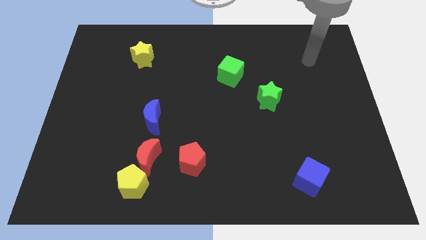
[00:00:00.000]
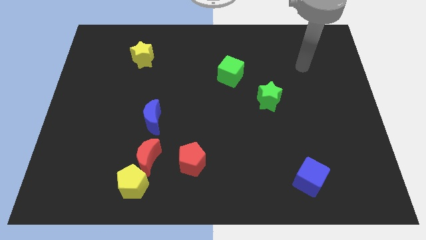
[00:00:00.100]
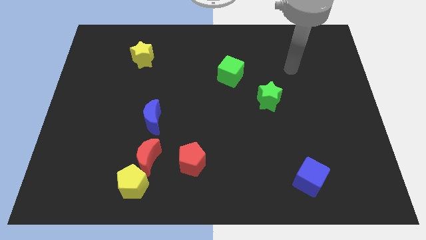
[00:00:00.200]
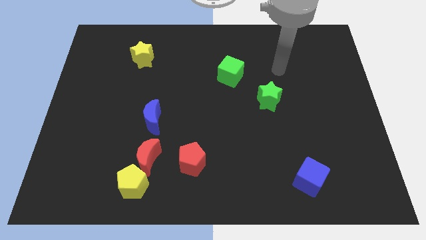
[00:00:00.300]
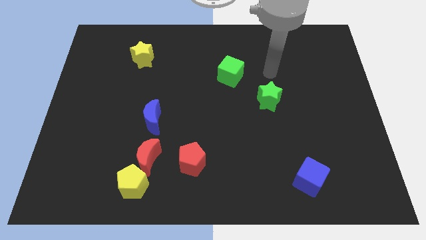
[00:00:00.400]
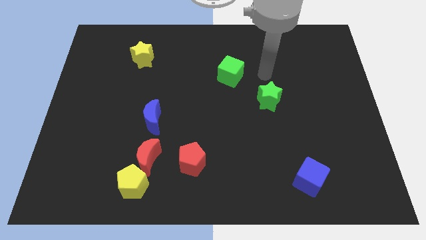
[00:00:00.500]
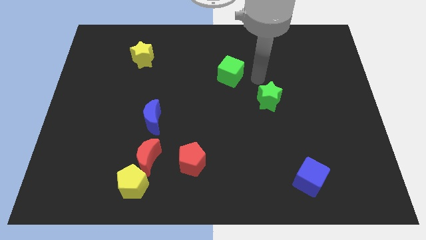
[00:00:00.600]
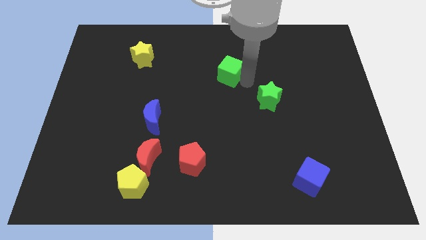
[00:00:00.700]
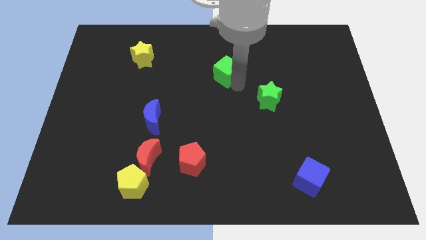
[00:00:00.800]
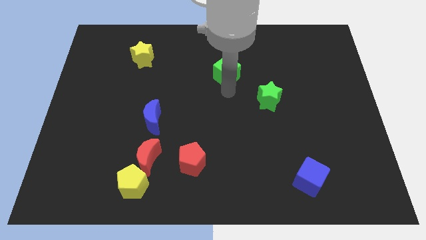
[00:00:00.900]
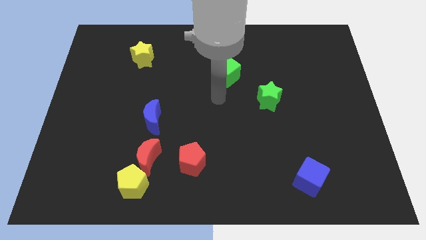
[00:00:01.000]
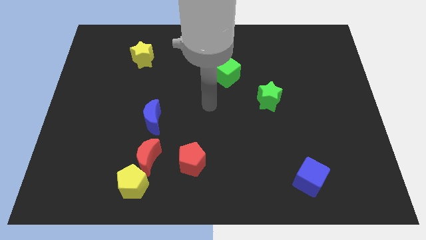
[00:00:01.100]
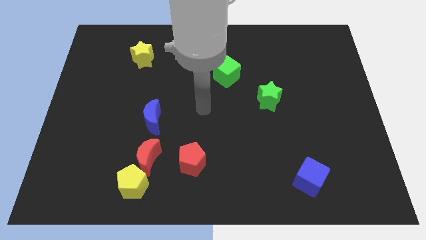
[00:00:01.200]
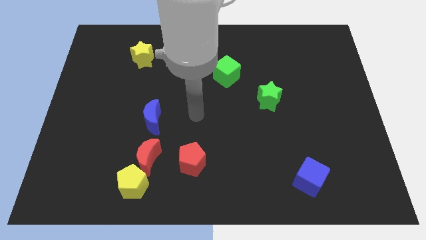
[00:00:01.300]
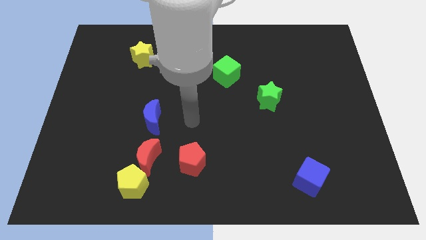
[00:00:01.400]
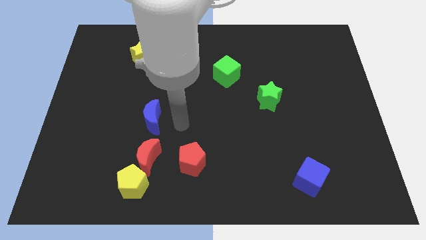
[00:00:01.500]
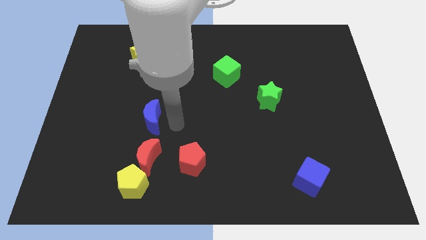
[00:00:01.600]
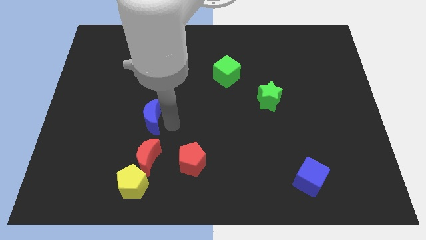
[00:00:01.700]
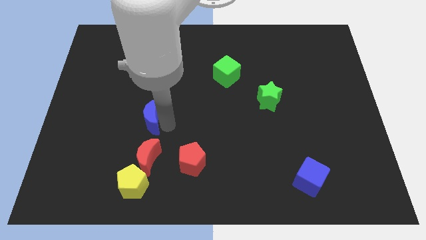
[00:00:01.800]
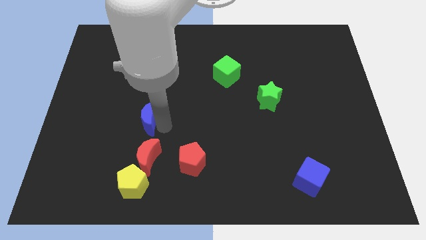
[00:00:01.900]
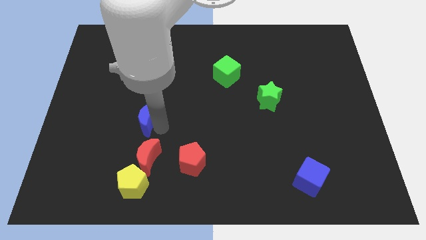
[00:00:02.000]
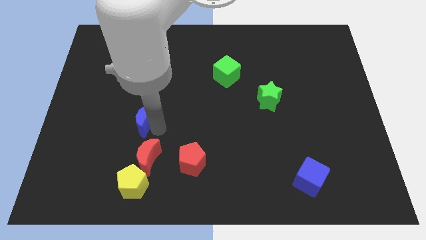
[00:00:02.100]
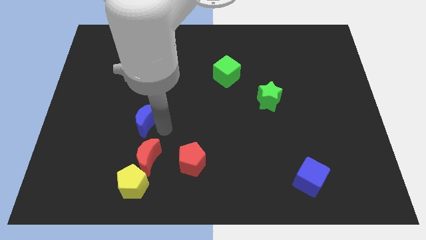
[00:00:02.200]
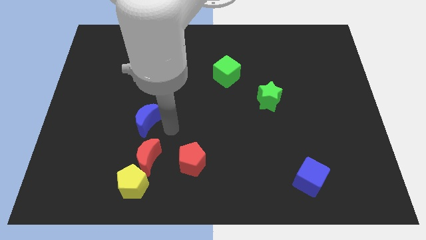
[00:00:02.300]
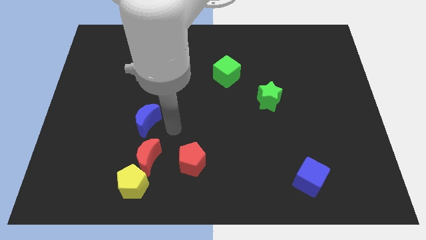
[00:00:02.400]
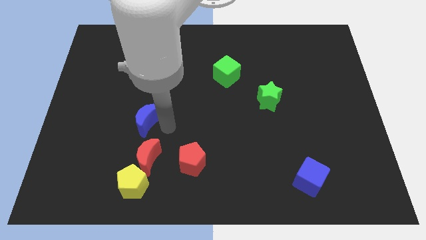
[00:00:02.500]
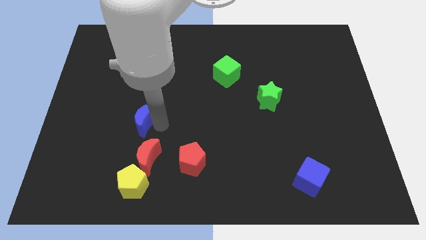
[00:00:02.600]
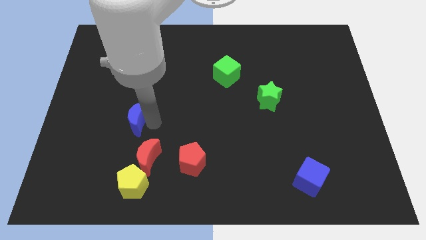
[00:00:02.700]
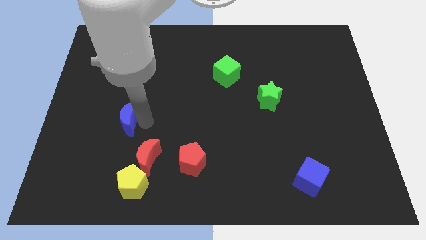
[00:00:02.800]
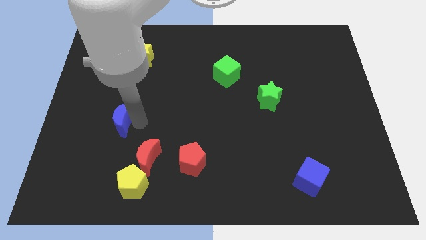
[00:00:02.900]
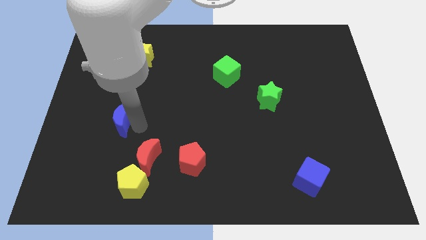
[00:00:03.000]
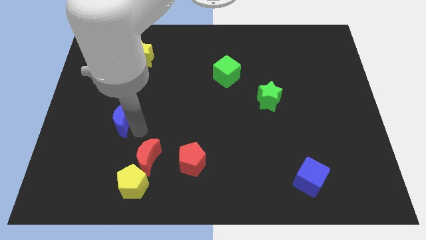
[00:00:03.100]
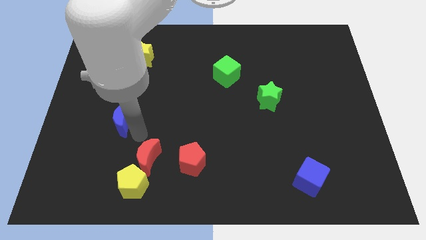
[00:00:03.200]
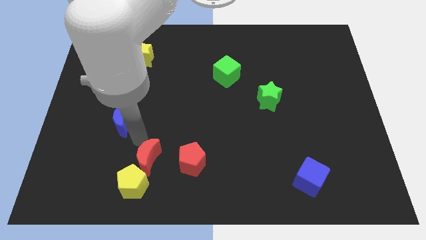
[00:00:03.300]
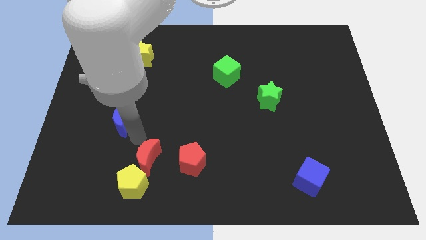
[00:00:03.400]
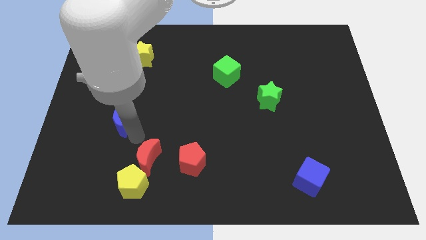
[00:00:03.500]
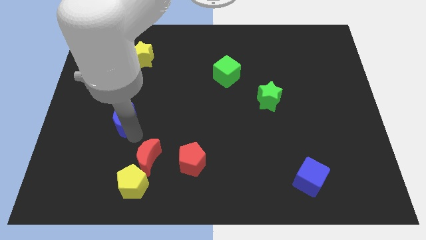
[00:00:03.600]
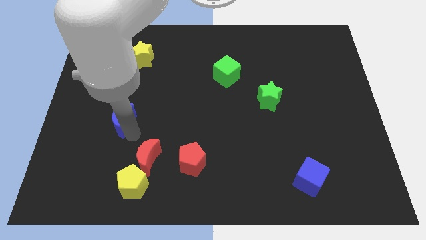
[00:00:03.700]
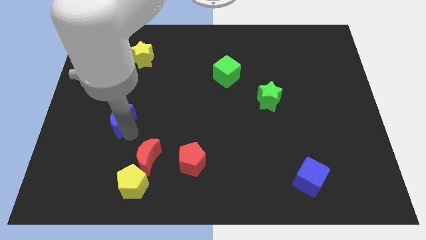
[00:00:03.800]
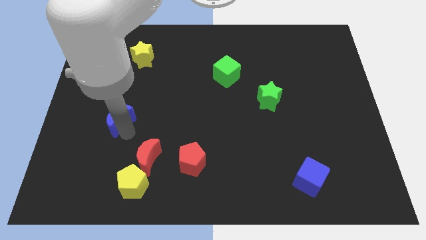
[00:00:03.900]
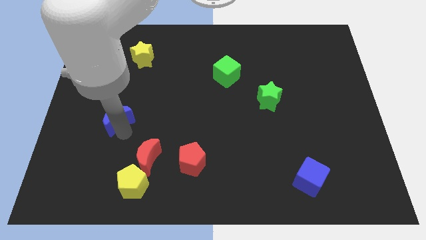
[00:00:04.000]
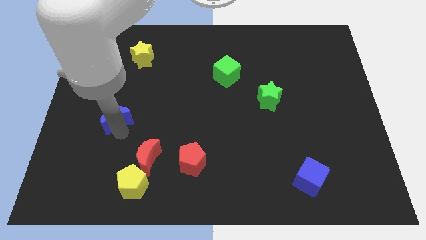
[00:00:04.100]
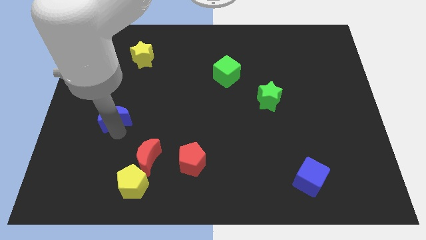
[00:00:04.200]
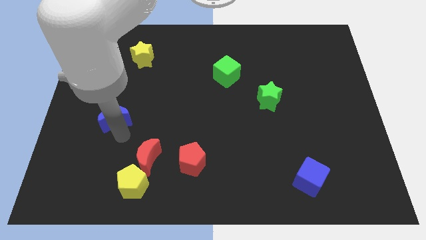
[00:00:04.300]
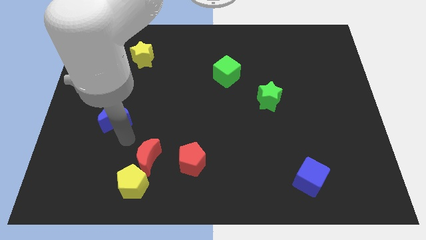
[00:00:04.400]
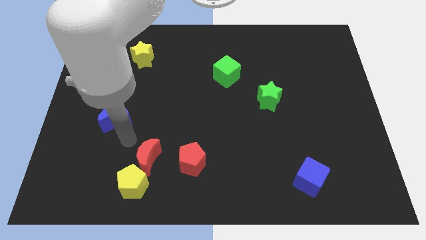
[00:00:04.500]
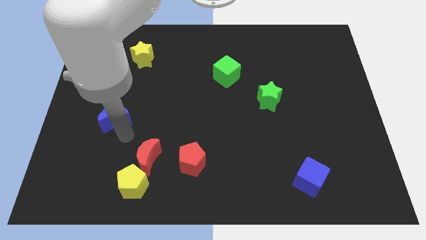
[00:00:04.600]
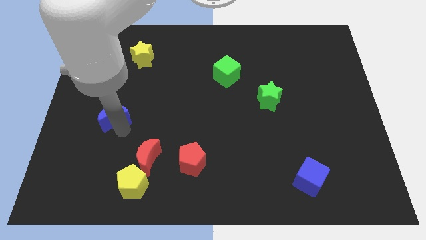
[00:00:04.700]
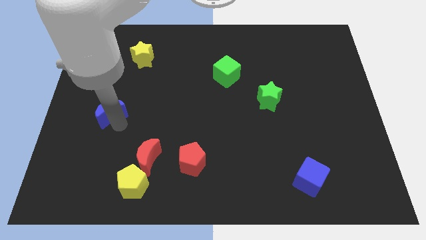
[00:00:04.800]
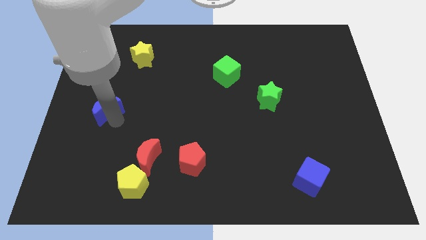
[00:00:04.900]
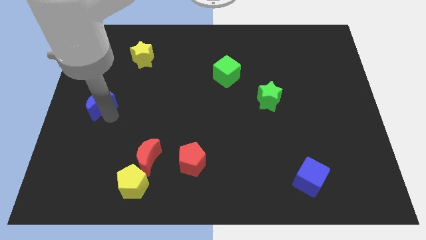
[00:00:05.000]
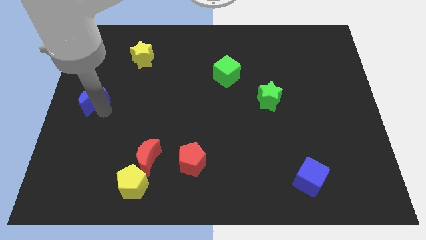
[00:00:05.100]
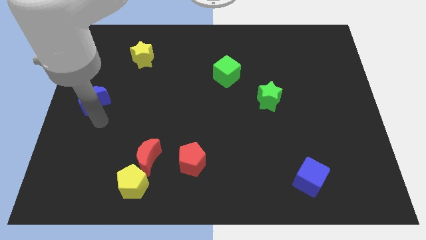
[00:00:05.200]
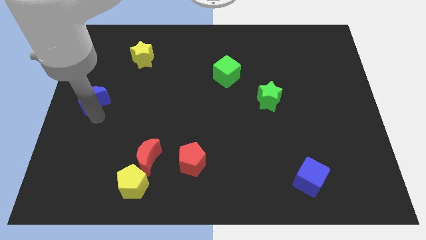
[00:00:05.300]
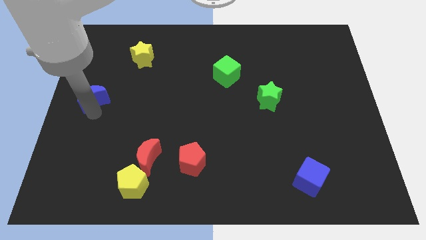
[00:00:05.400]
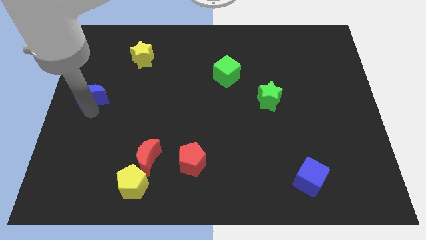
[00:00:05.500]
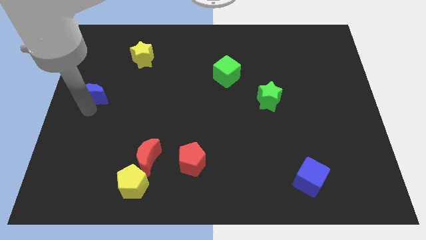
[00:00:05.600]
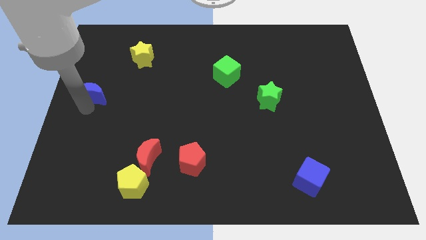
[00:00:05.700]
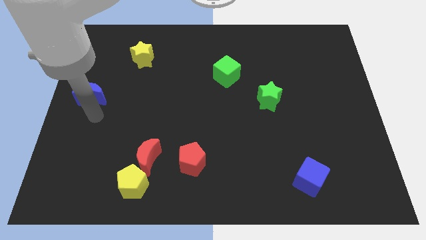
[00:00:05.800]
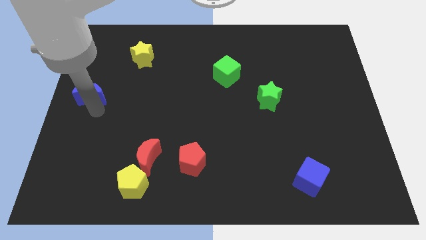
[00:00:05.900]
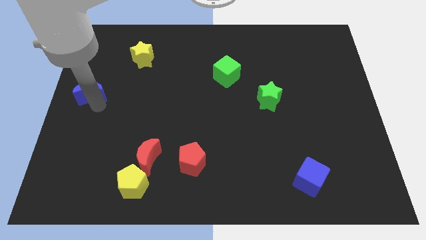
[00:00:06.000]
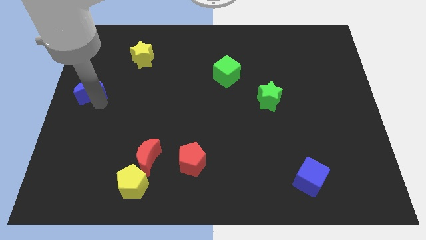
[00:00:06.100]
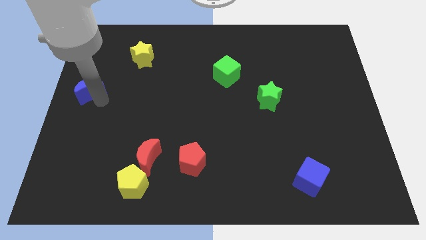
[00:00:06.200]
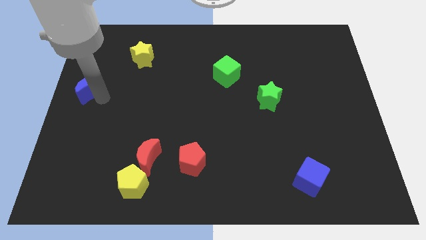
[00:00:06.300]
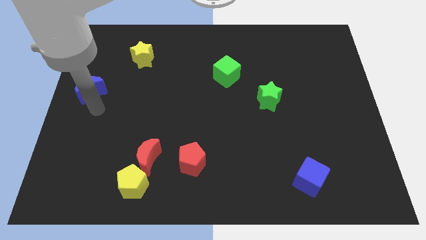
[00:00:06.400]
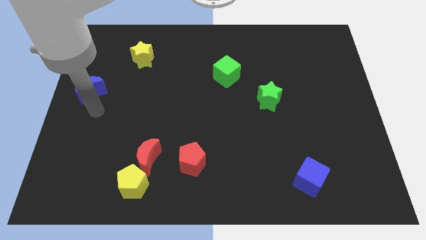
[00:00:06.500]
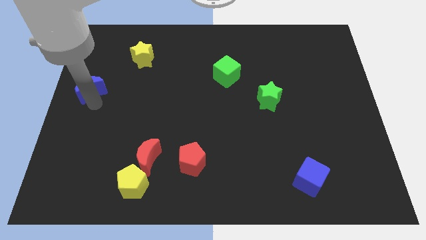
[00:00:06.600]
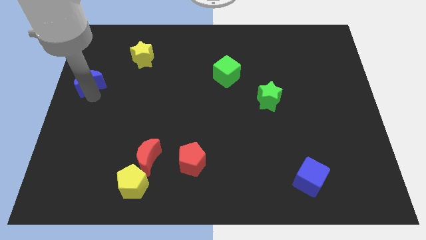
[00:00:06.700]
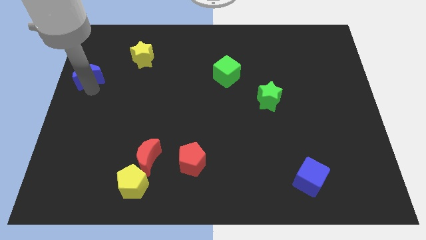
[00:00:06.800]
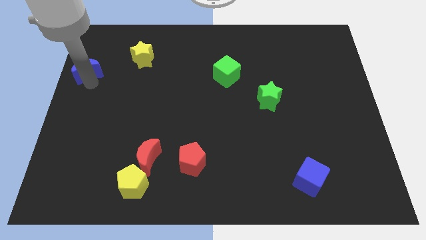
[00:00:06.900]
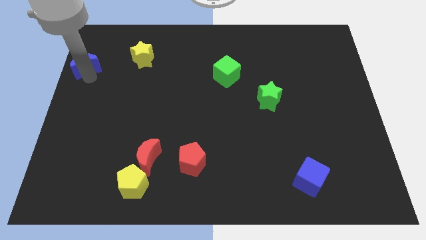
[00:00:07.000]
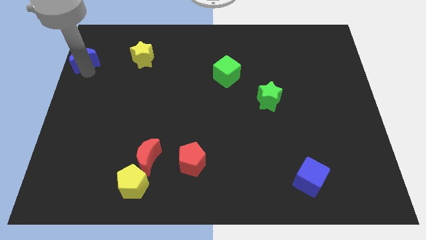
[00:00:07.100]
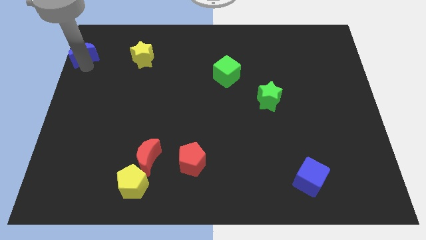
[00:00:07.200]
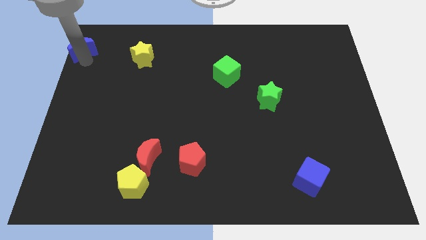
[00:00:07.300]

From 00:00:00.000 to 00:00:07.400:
slide the blue moon to the top left corner

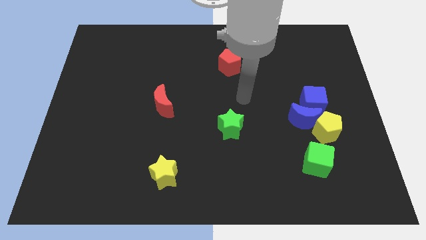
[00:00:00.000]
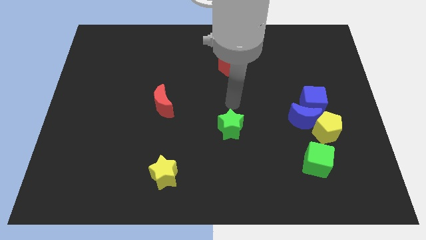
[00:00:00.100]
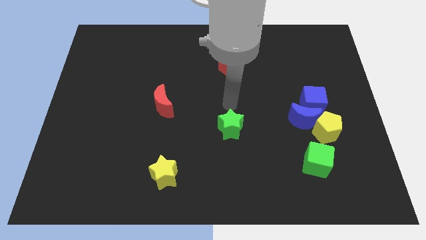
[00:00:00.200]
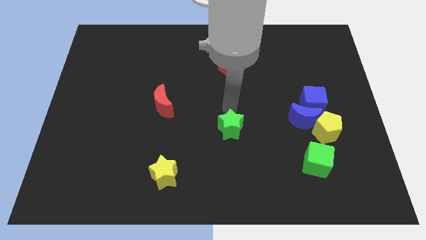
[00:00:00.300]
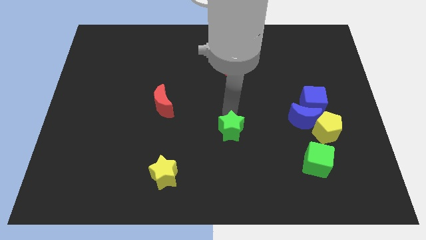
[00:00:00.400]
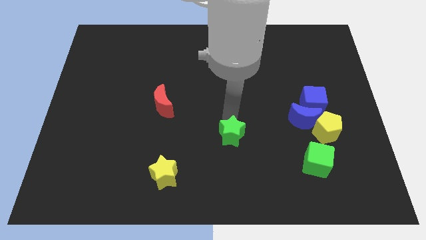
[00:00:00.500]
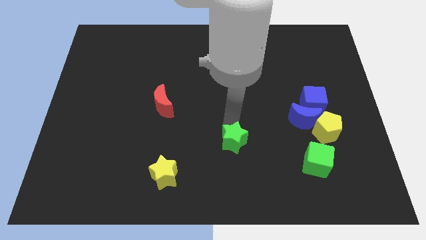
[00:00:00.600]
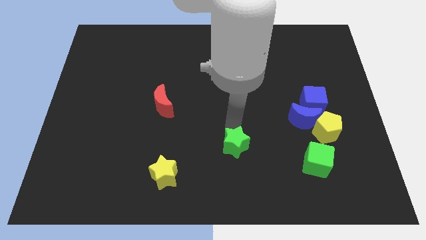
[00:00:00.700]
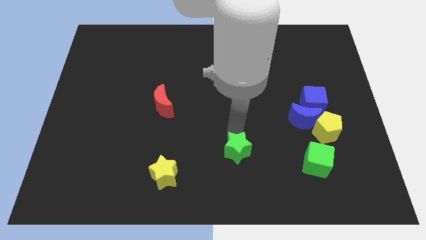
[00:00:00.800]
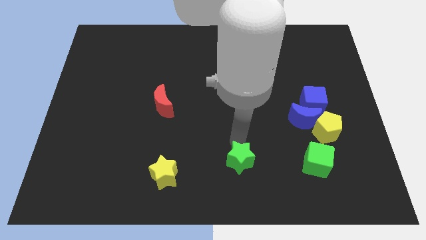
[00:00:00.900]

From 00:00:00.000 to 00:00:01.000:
put the green star to the bottom
